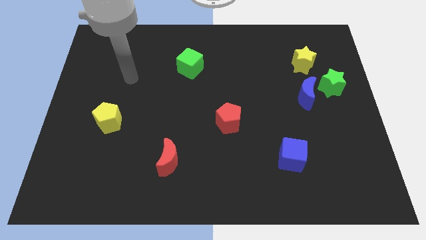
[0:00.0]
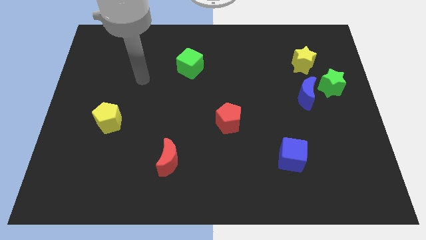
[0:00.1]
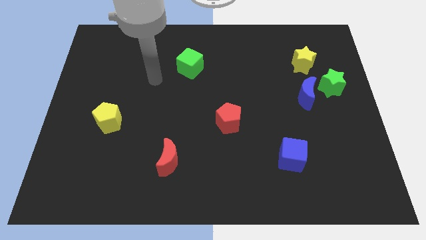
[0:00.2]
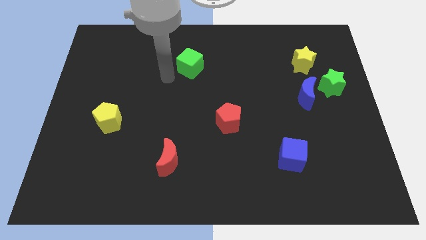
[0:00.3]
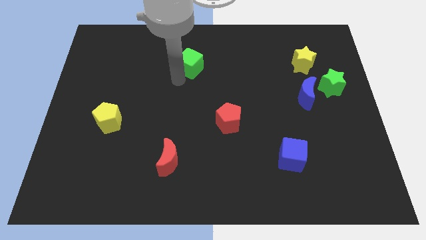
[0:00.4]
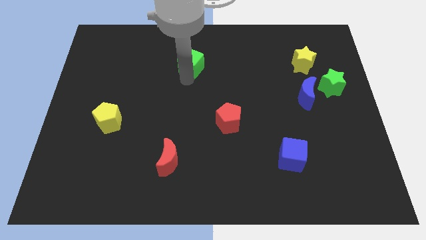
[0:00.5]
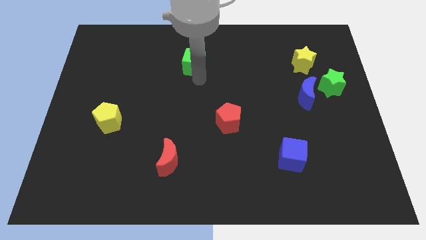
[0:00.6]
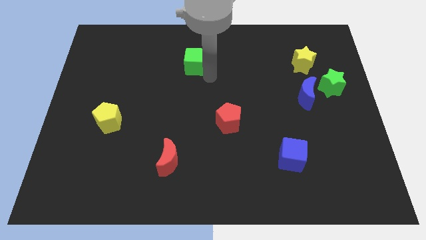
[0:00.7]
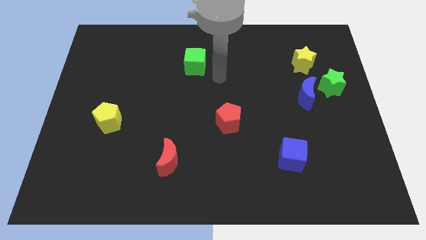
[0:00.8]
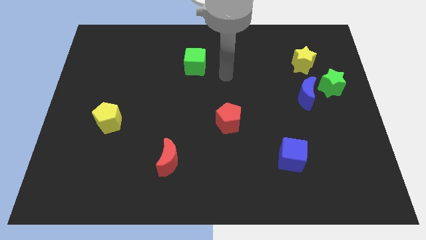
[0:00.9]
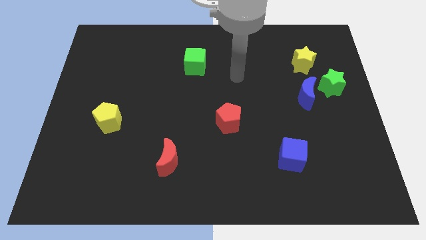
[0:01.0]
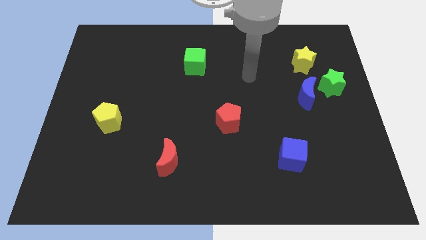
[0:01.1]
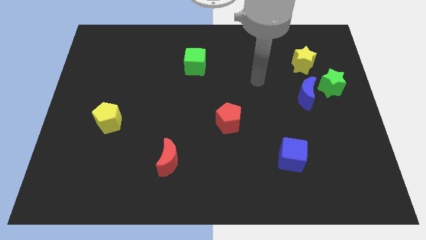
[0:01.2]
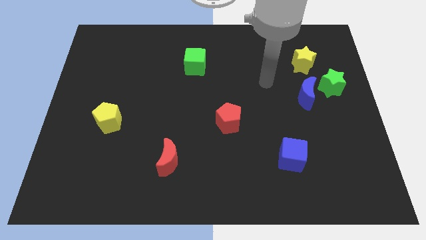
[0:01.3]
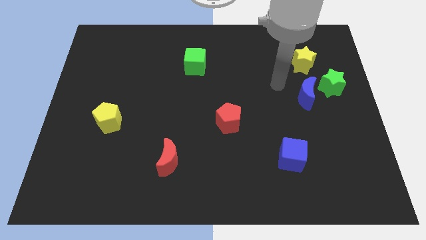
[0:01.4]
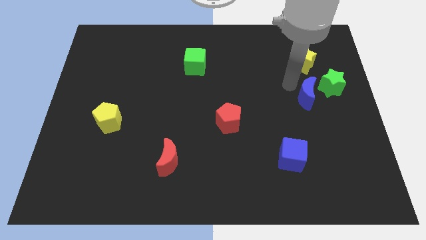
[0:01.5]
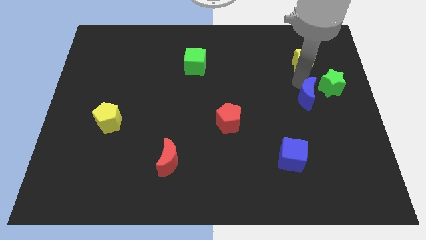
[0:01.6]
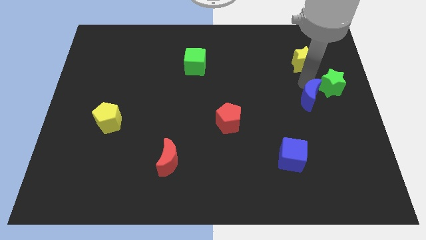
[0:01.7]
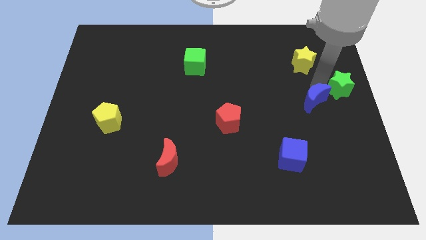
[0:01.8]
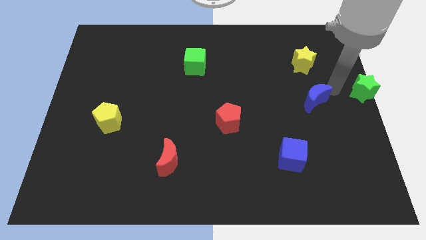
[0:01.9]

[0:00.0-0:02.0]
move the blue moon away from the green star

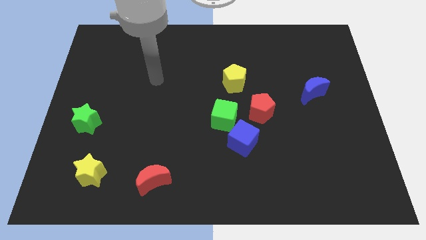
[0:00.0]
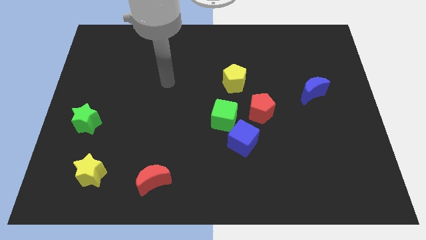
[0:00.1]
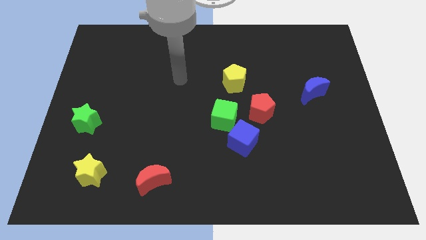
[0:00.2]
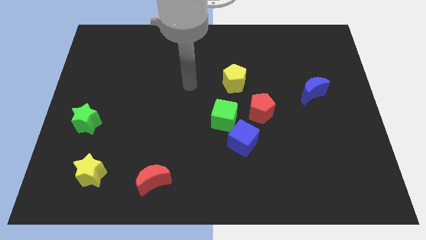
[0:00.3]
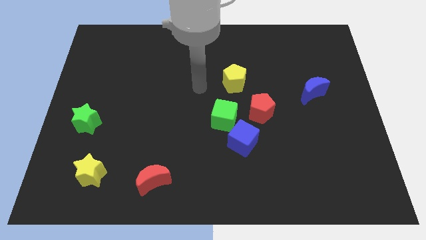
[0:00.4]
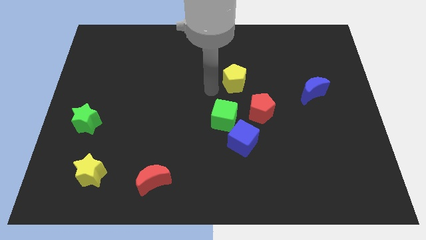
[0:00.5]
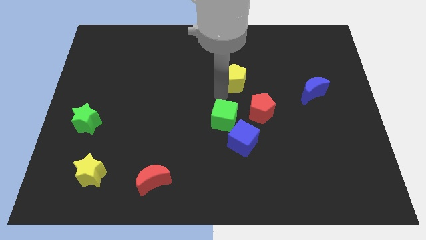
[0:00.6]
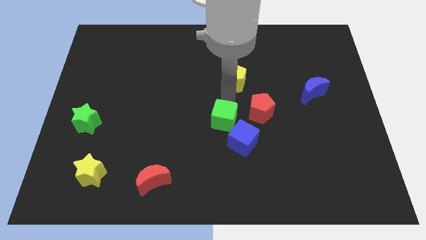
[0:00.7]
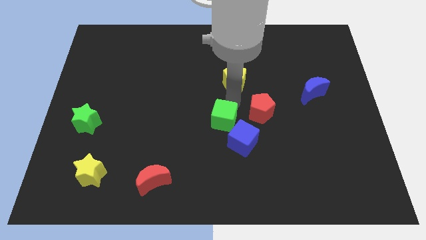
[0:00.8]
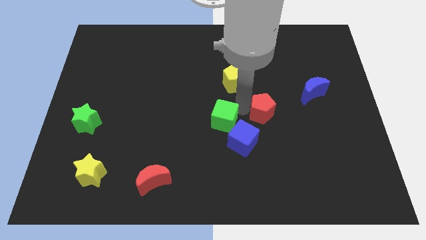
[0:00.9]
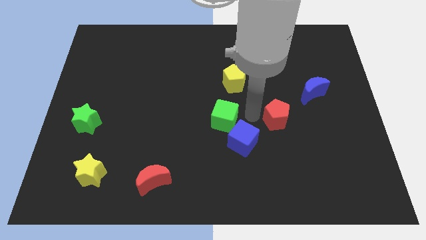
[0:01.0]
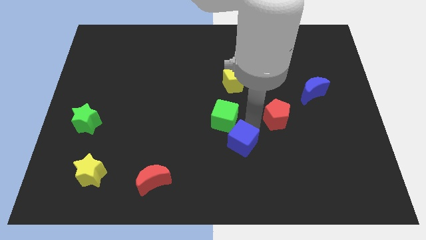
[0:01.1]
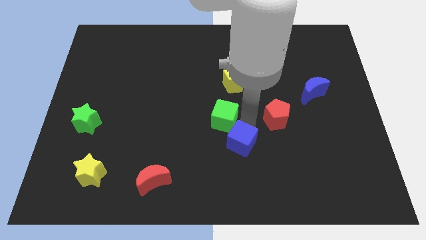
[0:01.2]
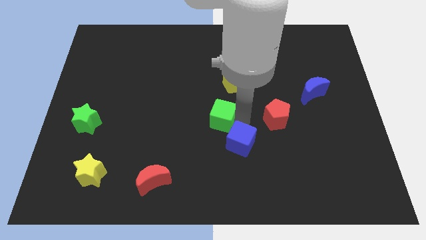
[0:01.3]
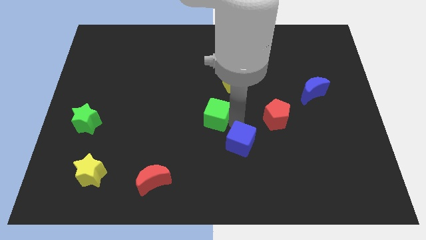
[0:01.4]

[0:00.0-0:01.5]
separate the green cube from the blue cube and red pentagon

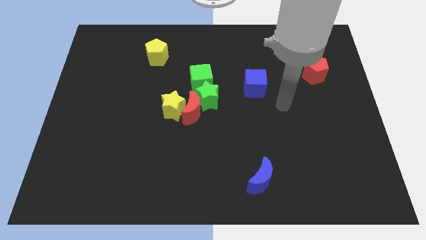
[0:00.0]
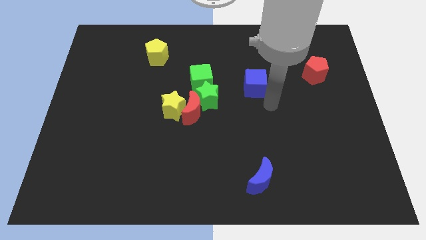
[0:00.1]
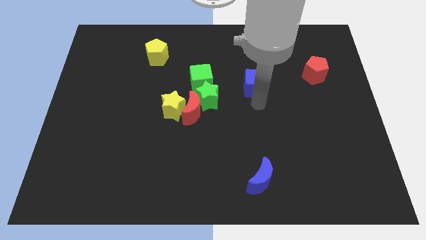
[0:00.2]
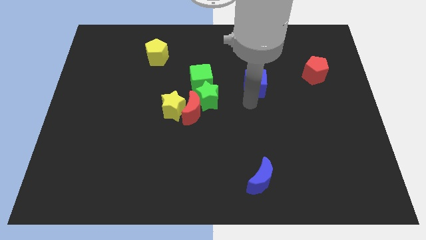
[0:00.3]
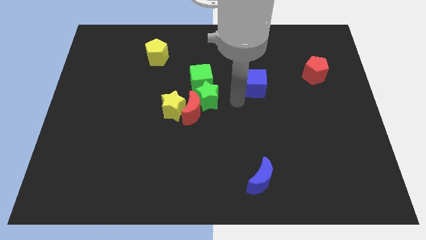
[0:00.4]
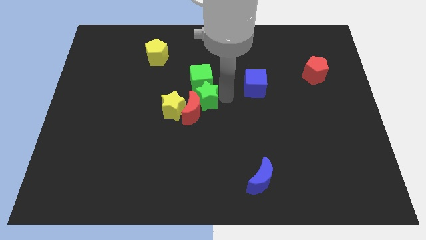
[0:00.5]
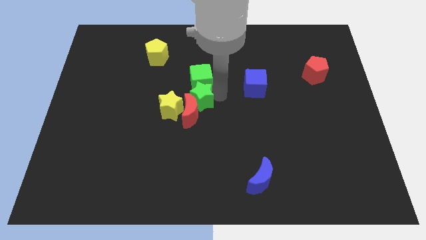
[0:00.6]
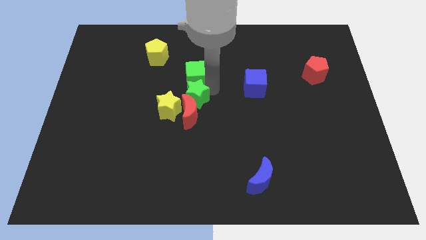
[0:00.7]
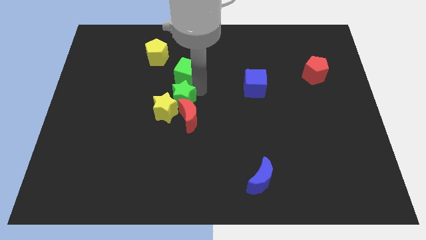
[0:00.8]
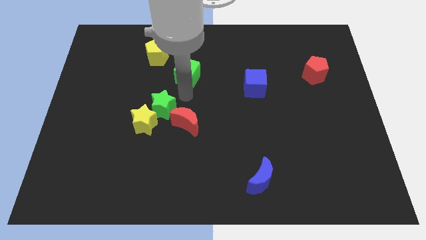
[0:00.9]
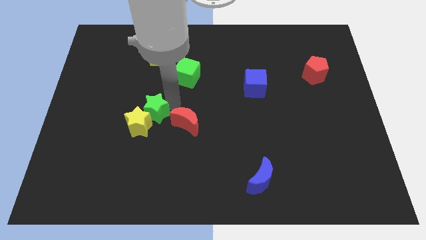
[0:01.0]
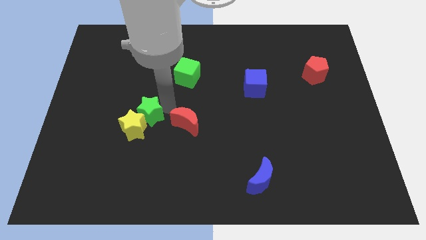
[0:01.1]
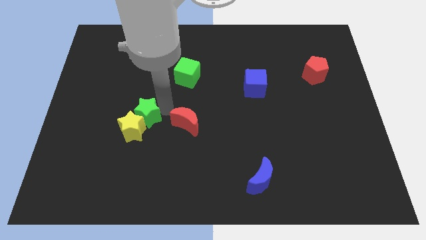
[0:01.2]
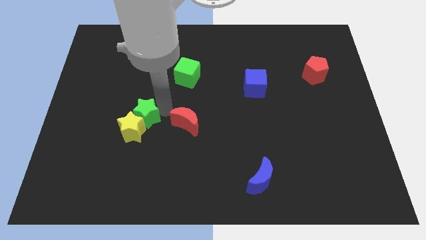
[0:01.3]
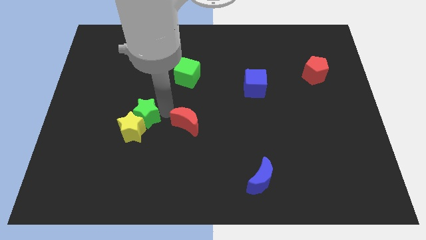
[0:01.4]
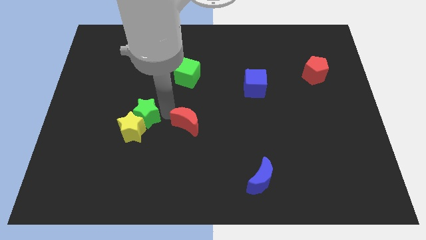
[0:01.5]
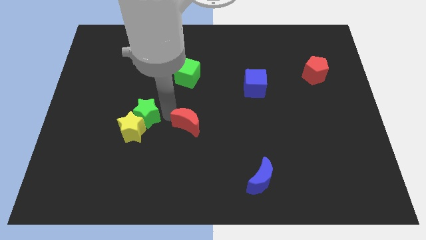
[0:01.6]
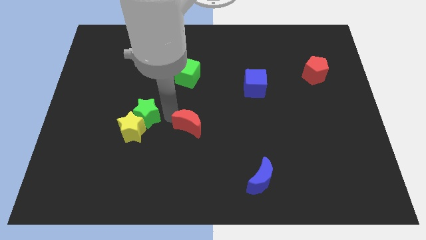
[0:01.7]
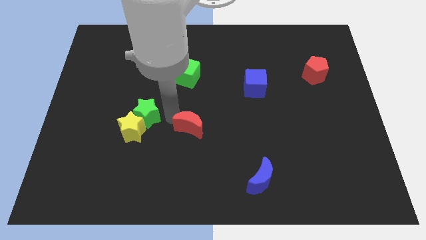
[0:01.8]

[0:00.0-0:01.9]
separate the red moon from the yellow star, green star, and green cube

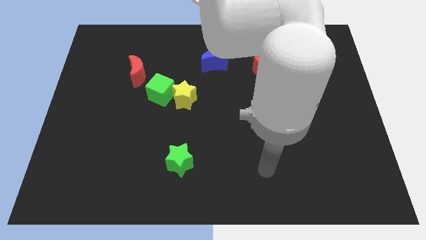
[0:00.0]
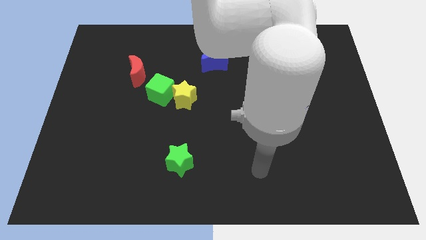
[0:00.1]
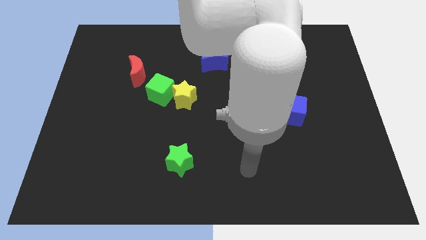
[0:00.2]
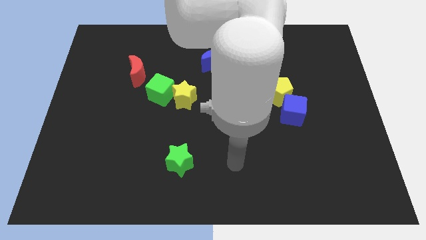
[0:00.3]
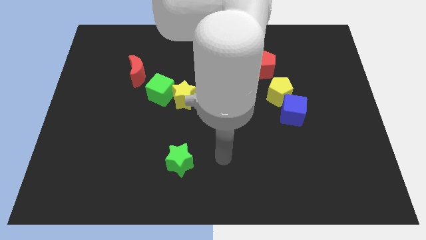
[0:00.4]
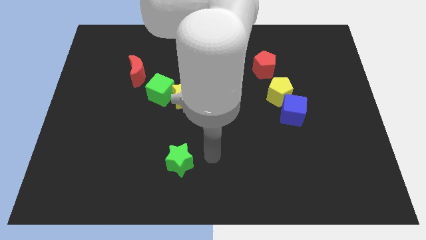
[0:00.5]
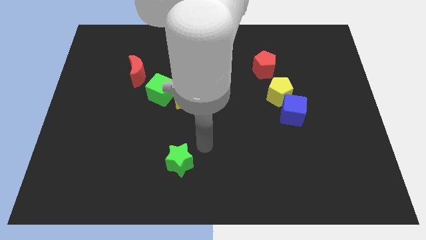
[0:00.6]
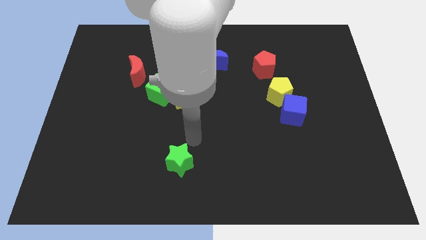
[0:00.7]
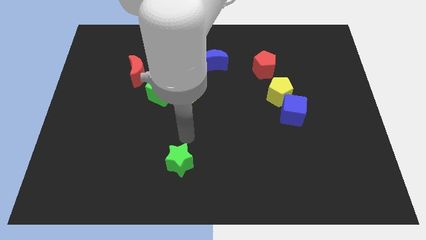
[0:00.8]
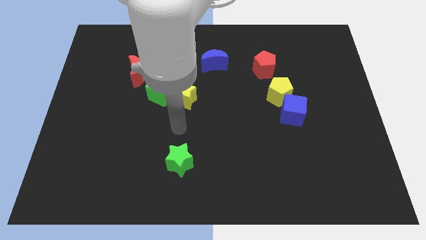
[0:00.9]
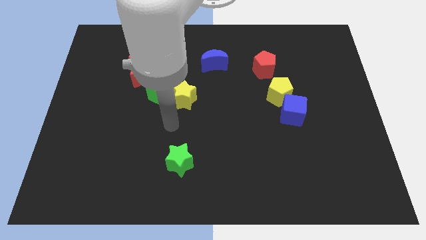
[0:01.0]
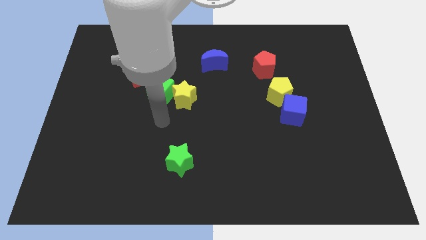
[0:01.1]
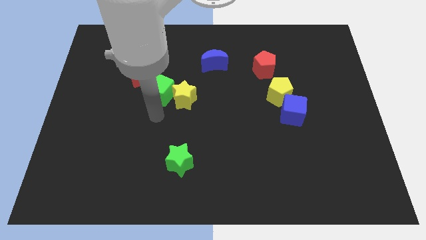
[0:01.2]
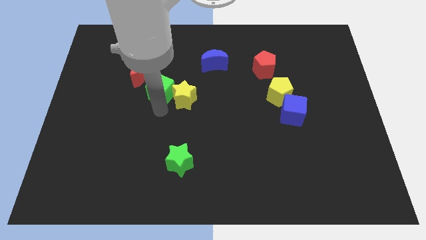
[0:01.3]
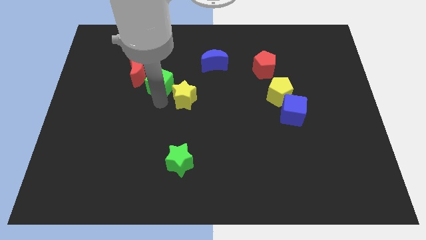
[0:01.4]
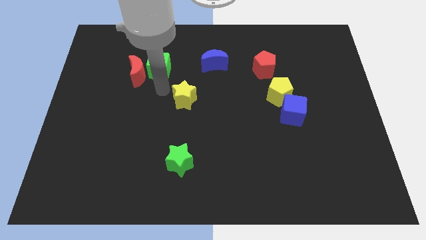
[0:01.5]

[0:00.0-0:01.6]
pull the yellow star apart from the green cube

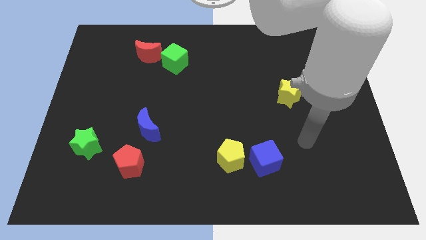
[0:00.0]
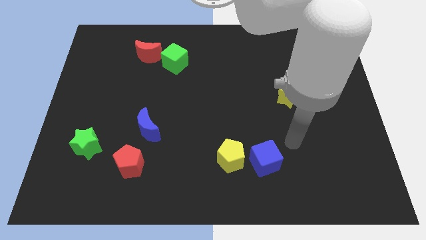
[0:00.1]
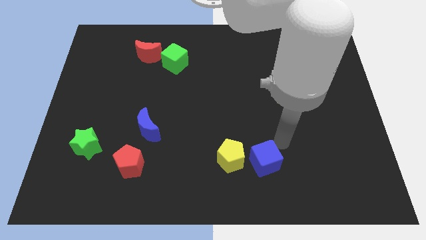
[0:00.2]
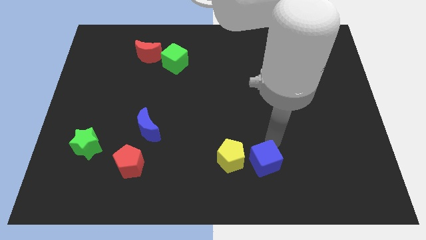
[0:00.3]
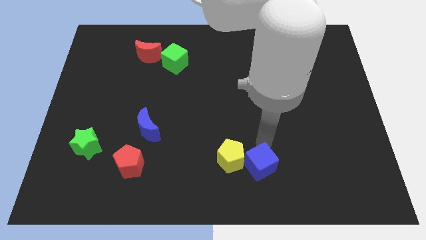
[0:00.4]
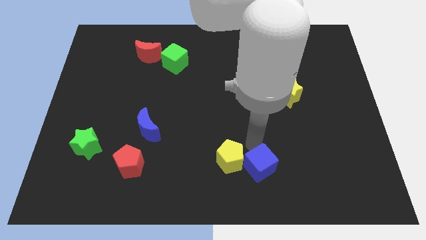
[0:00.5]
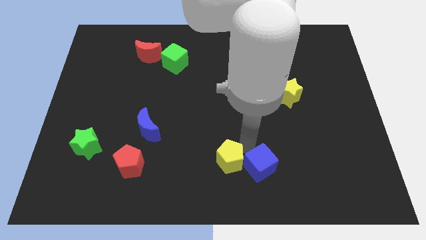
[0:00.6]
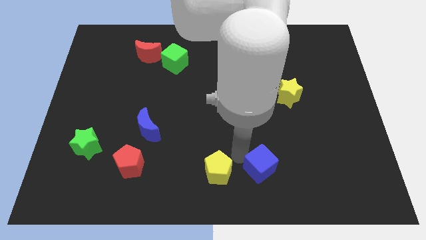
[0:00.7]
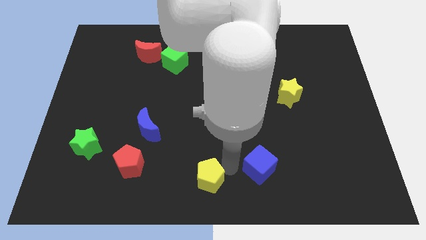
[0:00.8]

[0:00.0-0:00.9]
separate the blue cube from the yellow pentagon

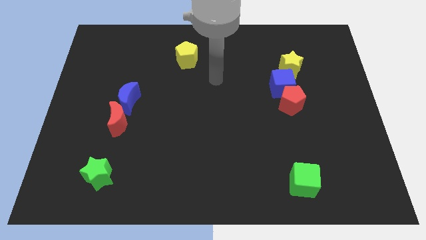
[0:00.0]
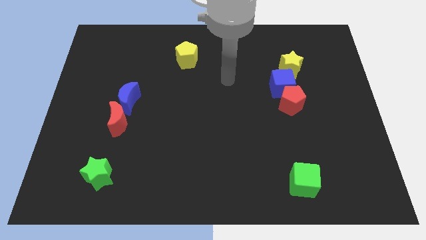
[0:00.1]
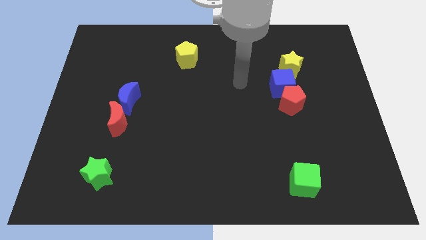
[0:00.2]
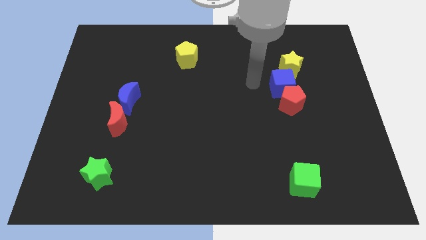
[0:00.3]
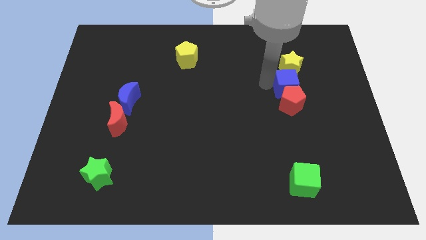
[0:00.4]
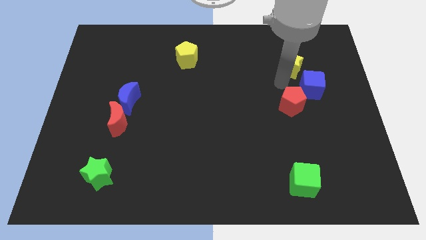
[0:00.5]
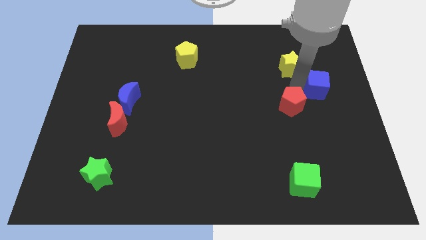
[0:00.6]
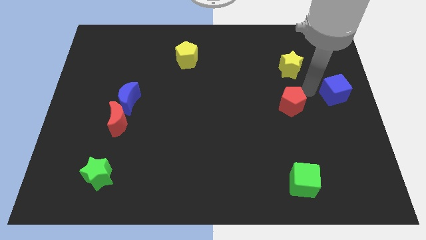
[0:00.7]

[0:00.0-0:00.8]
pull the red pentagon apart from the blue cube

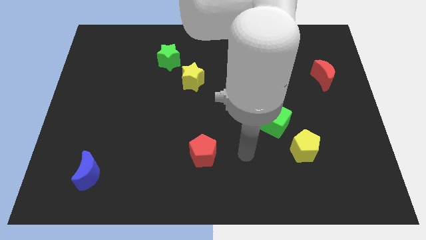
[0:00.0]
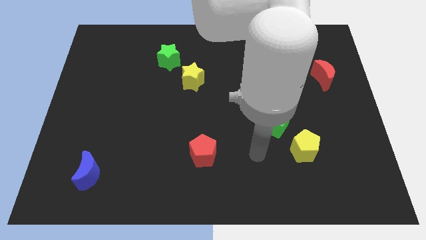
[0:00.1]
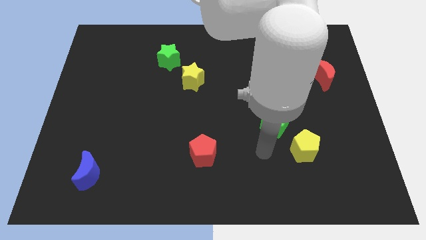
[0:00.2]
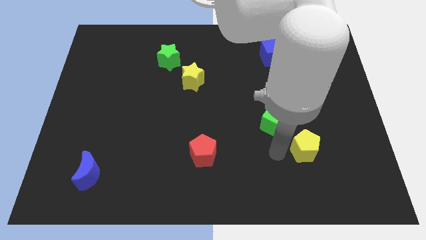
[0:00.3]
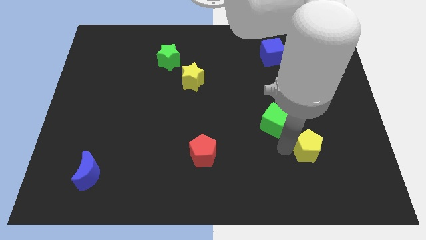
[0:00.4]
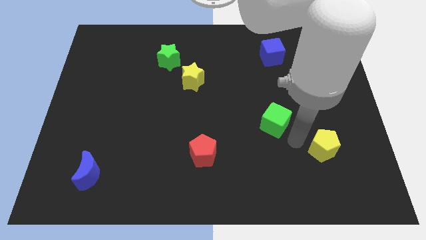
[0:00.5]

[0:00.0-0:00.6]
pull the green cube apart from the yellow pentagon

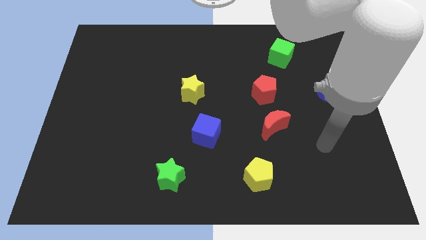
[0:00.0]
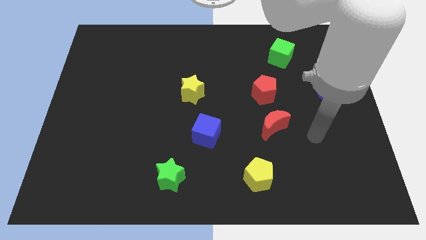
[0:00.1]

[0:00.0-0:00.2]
pull the red moon apart from the red pentagon

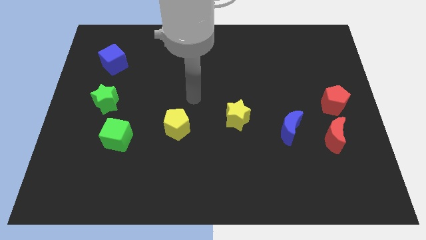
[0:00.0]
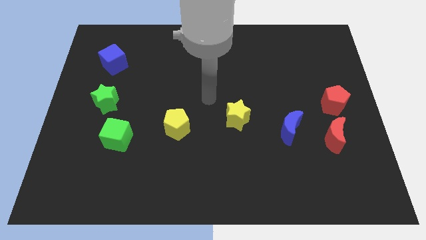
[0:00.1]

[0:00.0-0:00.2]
pull the blue moon apart from the red moon
